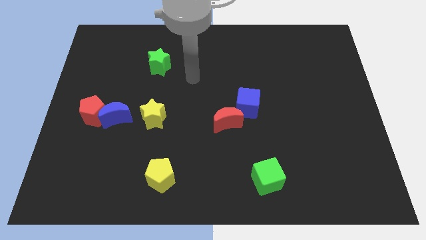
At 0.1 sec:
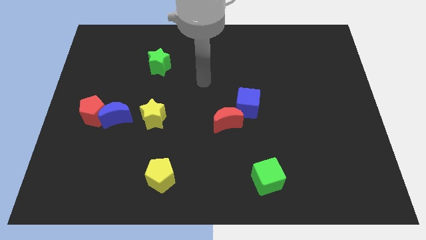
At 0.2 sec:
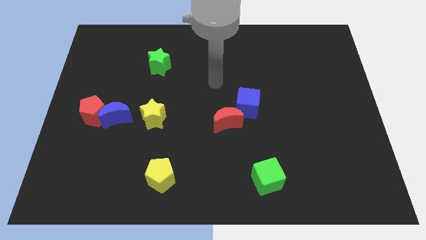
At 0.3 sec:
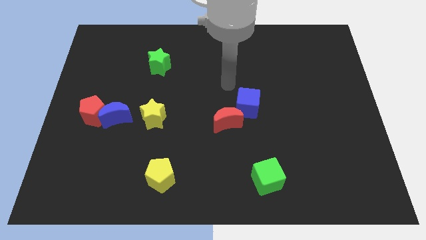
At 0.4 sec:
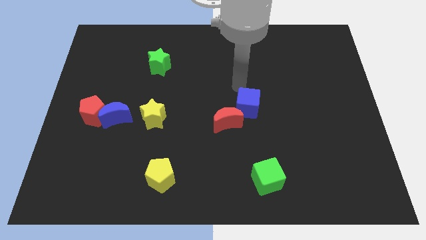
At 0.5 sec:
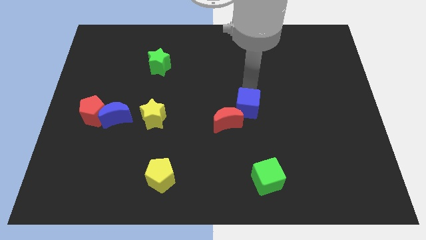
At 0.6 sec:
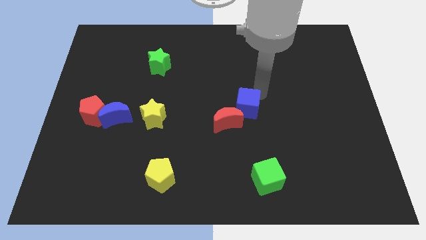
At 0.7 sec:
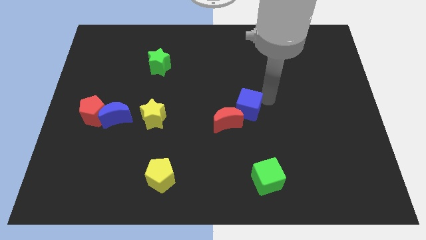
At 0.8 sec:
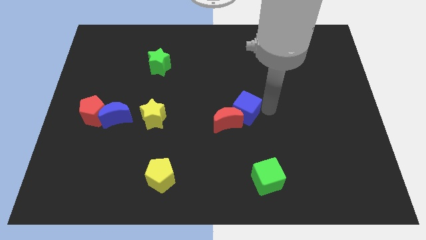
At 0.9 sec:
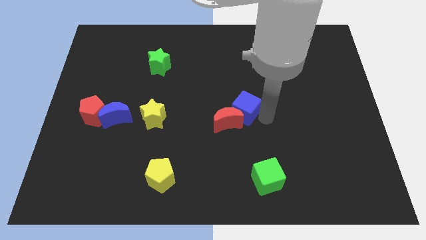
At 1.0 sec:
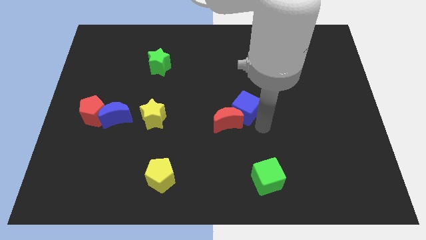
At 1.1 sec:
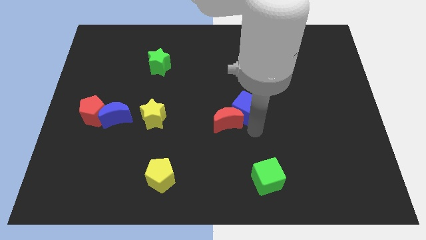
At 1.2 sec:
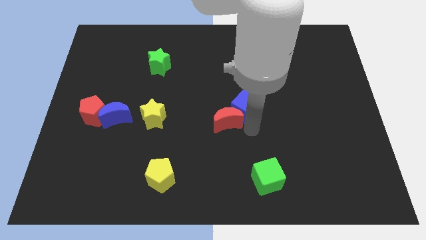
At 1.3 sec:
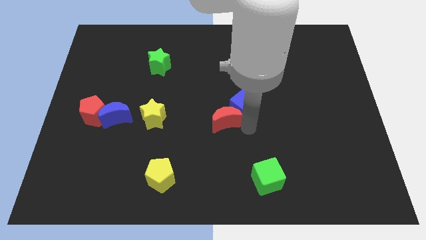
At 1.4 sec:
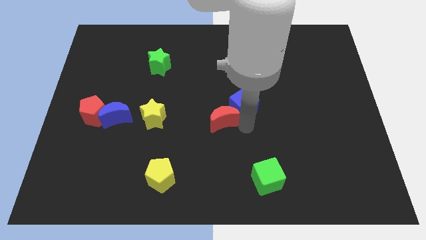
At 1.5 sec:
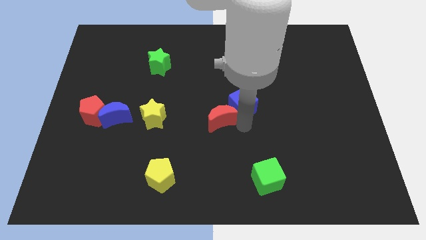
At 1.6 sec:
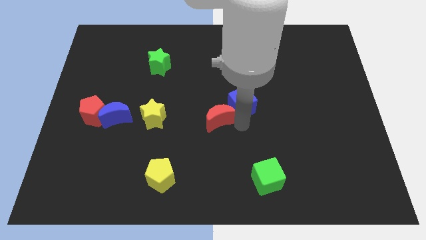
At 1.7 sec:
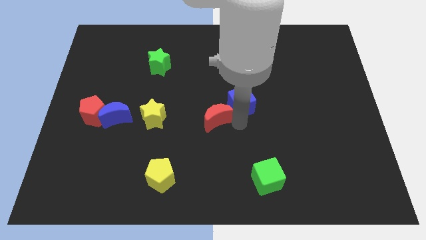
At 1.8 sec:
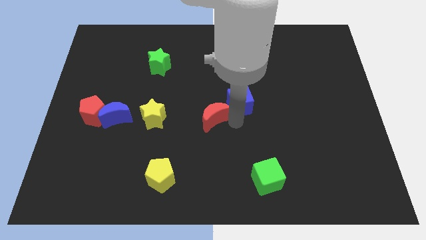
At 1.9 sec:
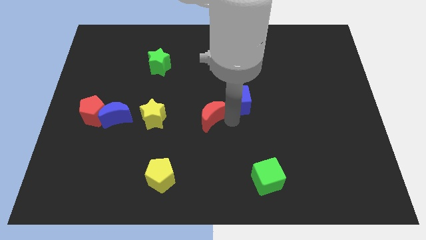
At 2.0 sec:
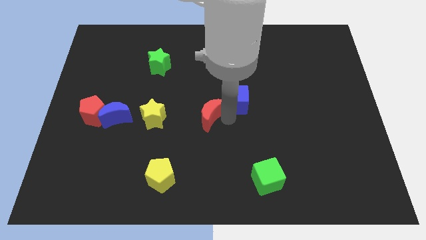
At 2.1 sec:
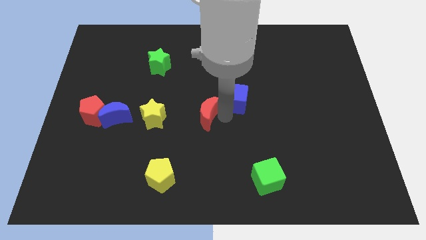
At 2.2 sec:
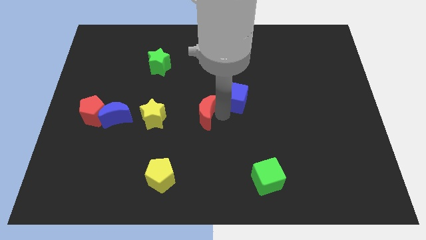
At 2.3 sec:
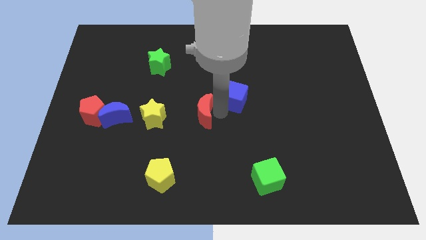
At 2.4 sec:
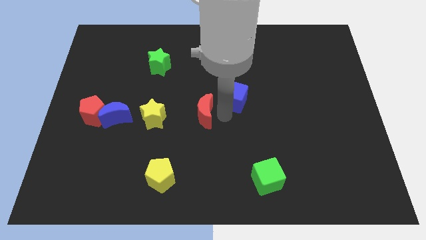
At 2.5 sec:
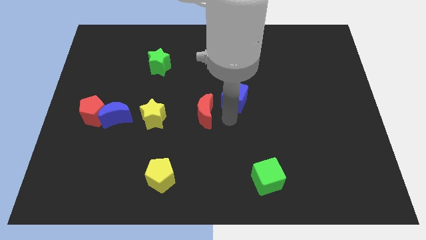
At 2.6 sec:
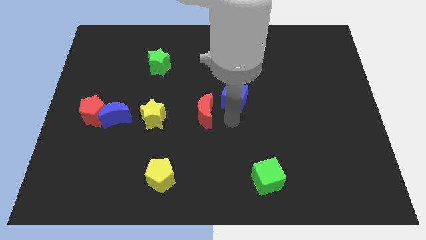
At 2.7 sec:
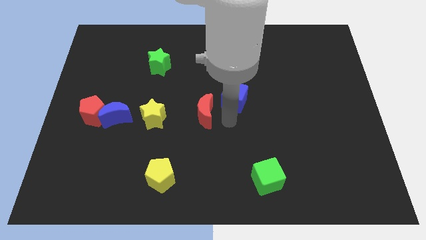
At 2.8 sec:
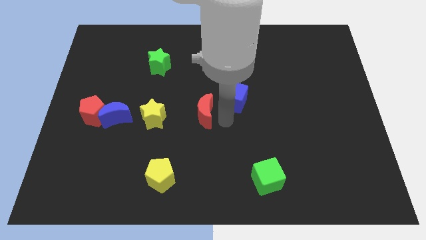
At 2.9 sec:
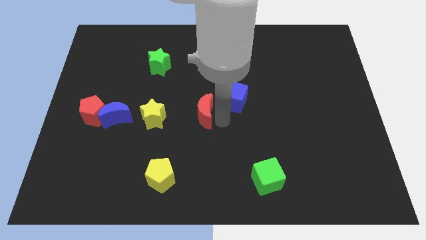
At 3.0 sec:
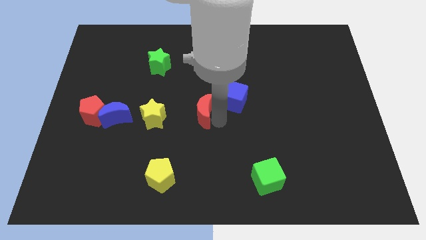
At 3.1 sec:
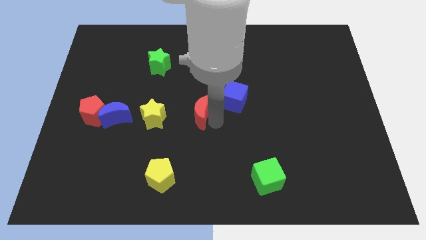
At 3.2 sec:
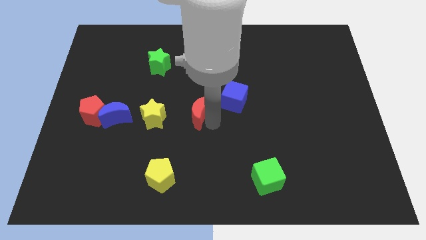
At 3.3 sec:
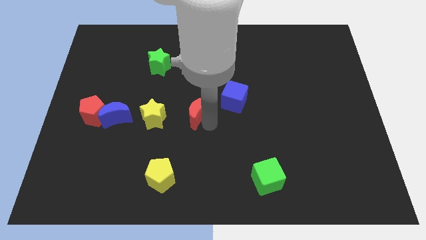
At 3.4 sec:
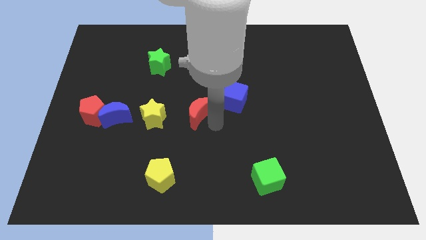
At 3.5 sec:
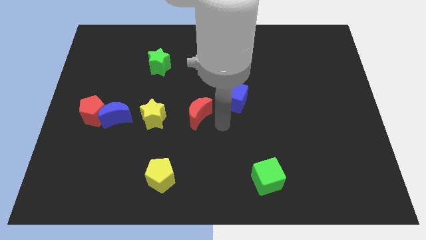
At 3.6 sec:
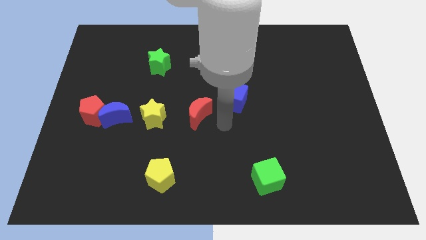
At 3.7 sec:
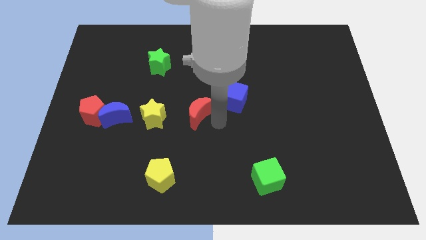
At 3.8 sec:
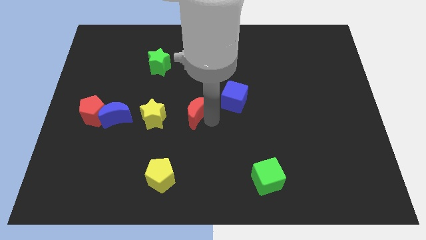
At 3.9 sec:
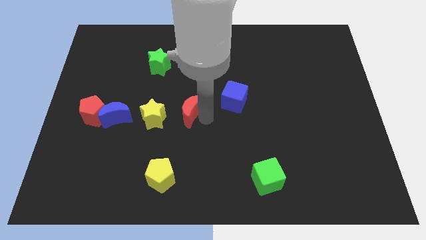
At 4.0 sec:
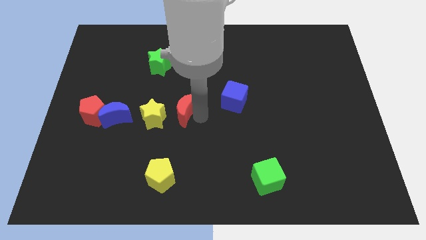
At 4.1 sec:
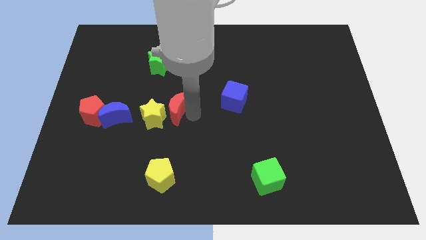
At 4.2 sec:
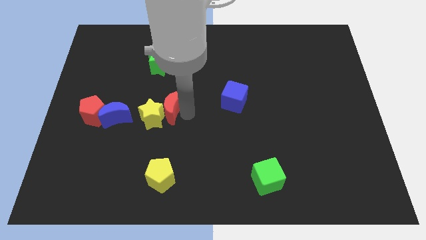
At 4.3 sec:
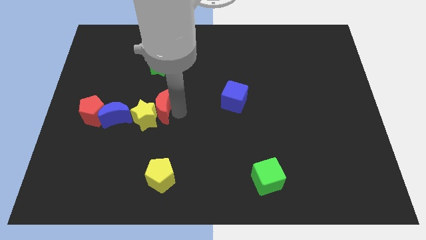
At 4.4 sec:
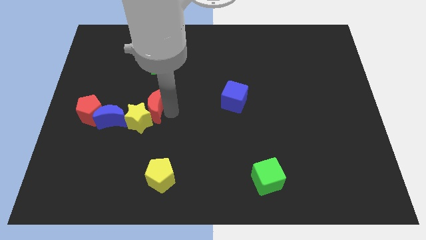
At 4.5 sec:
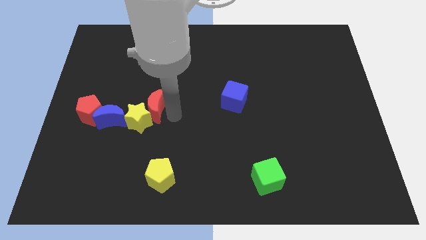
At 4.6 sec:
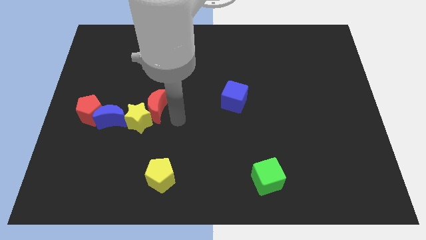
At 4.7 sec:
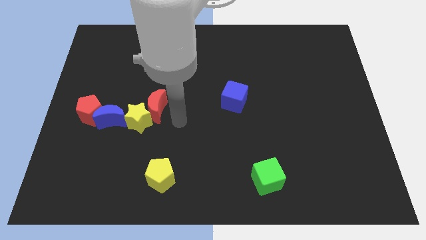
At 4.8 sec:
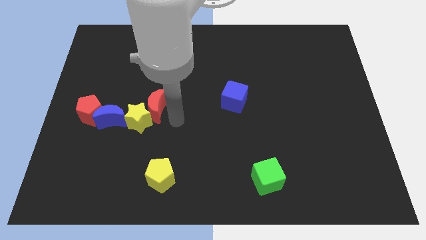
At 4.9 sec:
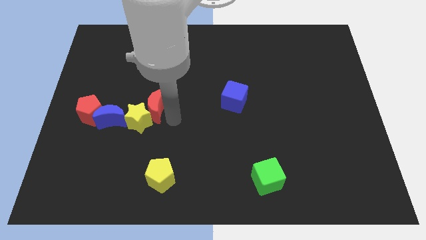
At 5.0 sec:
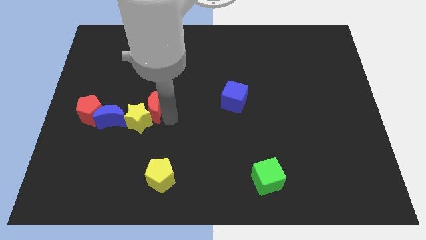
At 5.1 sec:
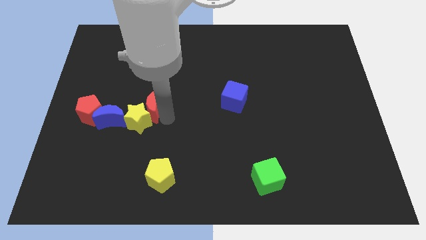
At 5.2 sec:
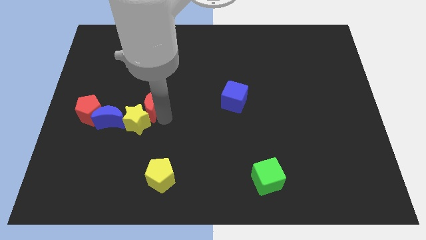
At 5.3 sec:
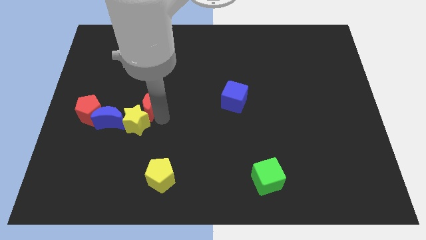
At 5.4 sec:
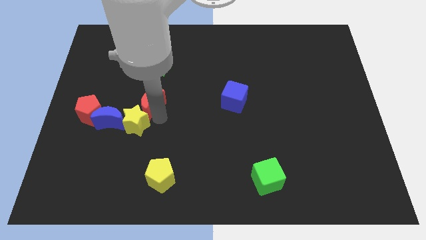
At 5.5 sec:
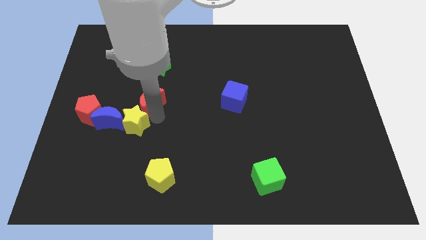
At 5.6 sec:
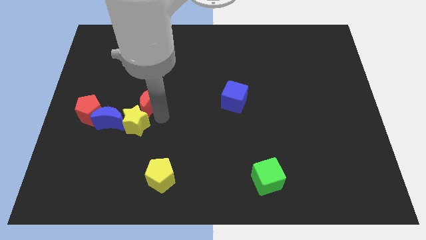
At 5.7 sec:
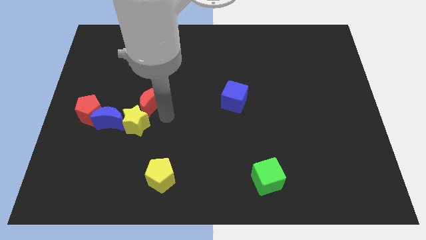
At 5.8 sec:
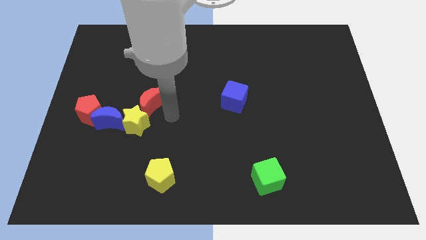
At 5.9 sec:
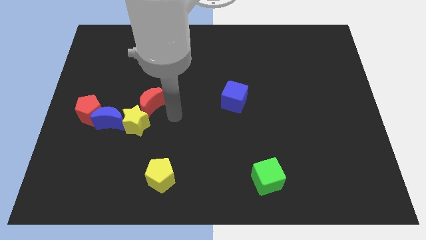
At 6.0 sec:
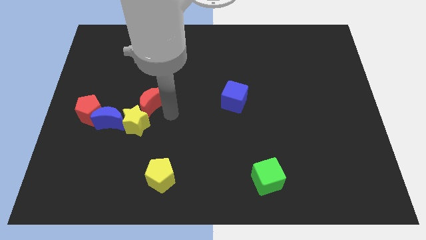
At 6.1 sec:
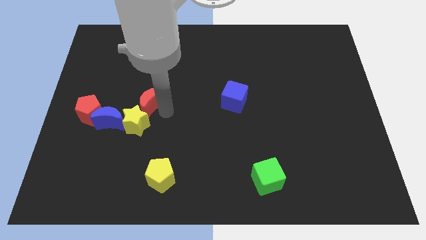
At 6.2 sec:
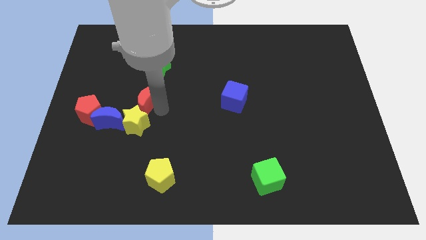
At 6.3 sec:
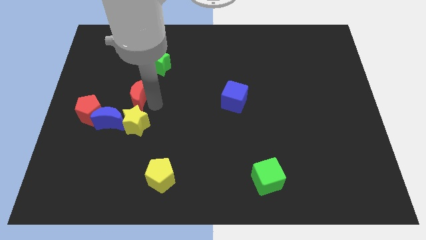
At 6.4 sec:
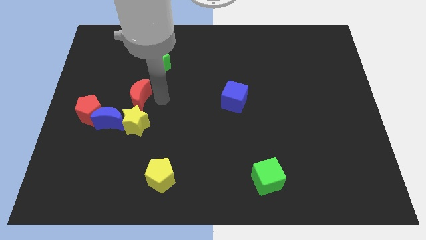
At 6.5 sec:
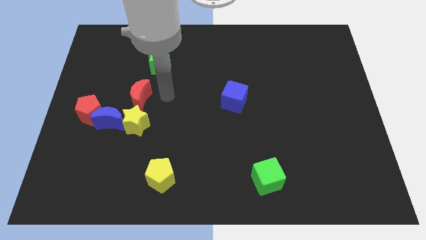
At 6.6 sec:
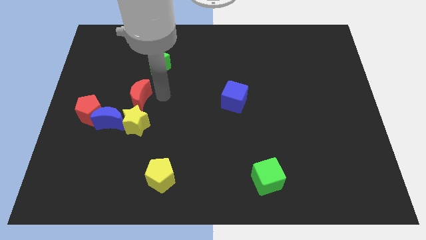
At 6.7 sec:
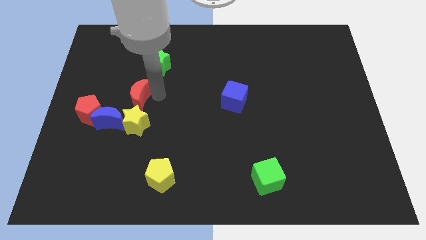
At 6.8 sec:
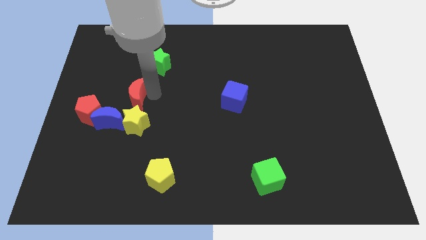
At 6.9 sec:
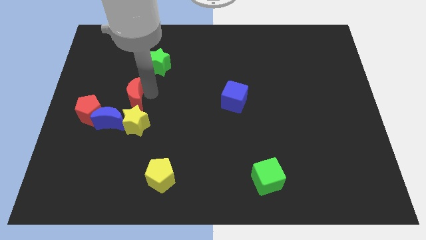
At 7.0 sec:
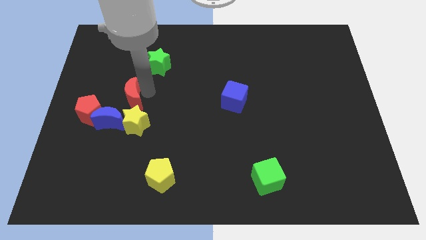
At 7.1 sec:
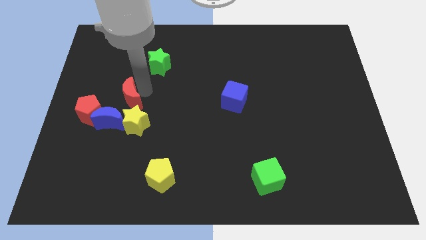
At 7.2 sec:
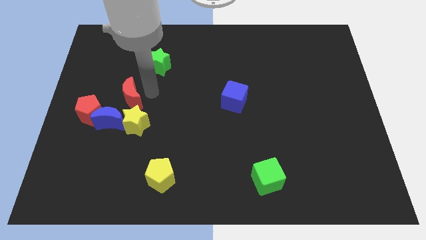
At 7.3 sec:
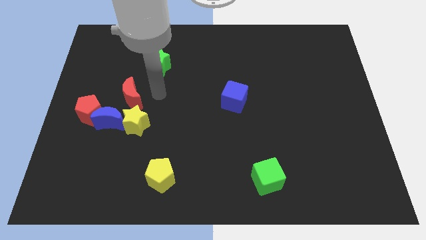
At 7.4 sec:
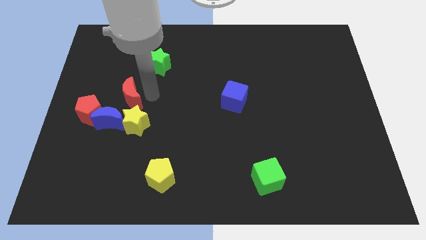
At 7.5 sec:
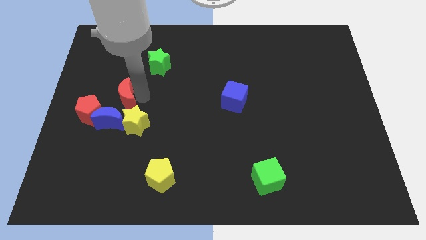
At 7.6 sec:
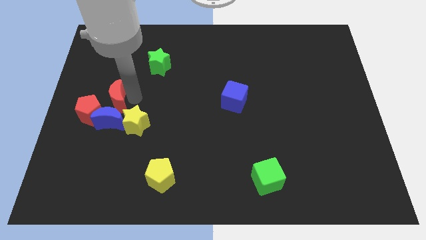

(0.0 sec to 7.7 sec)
slide the red moon to the top left side of the blue moon
